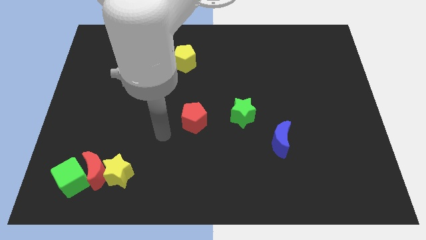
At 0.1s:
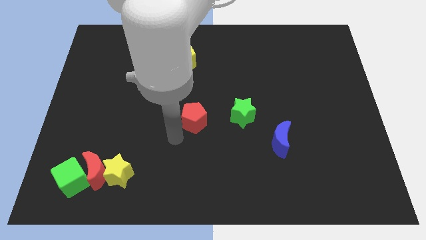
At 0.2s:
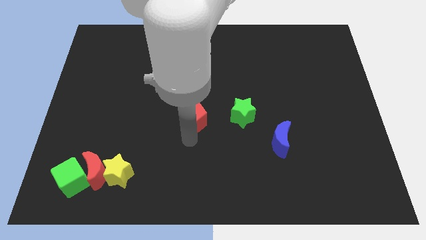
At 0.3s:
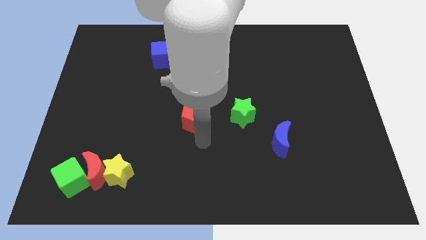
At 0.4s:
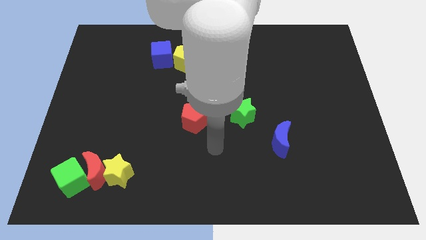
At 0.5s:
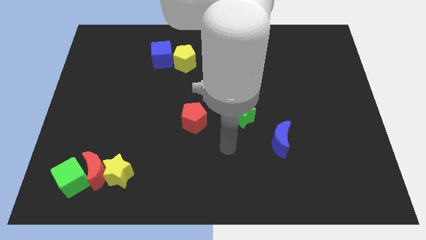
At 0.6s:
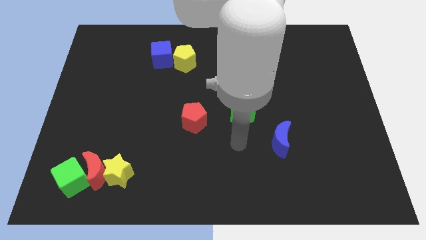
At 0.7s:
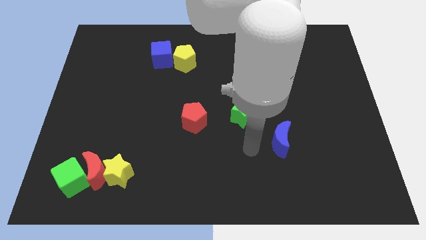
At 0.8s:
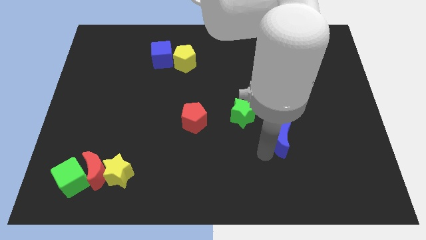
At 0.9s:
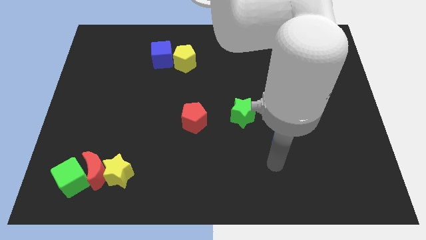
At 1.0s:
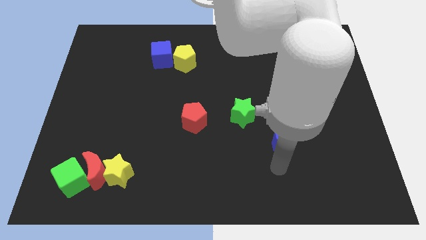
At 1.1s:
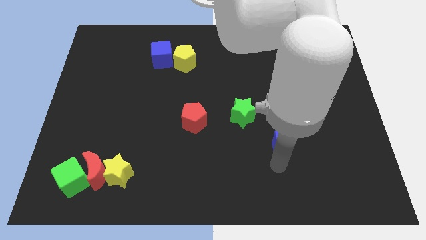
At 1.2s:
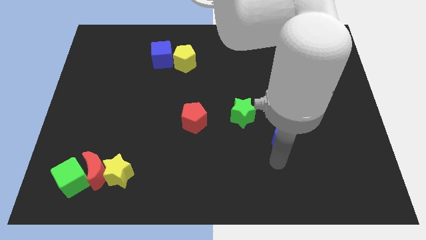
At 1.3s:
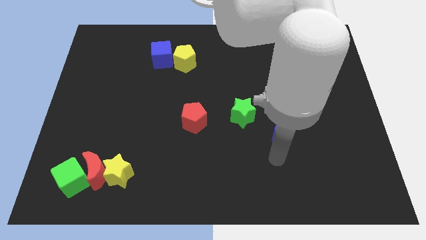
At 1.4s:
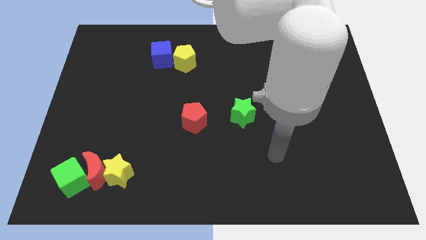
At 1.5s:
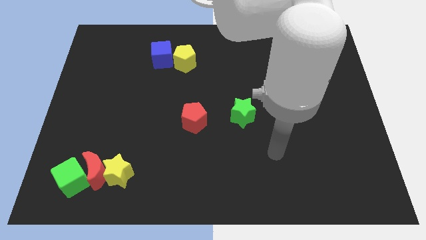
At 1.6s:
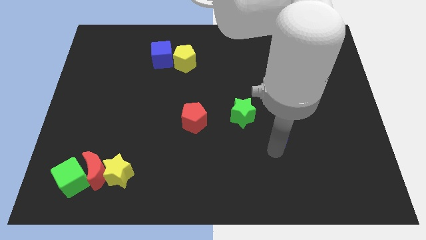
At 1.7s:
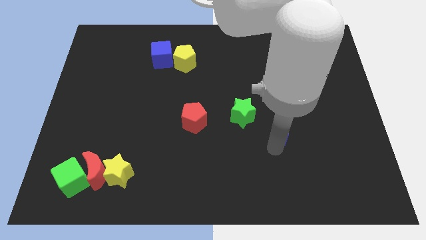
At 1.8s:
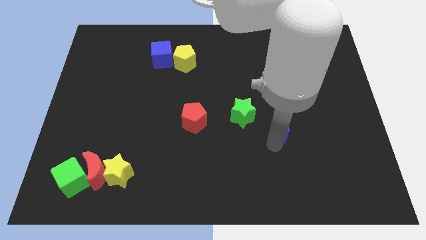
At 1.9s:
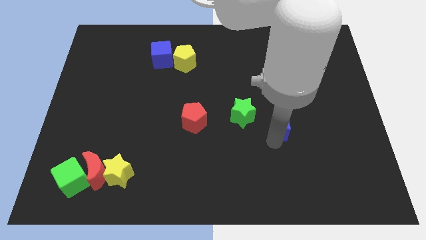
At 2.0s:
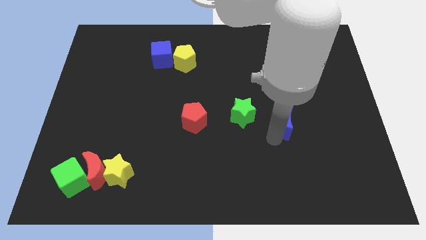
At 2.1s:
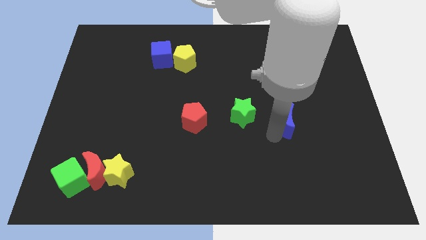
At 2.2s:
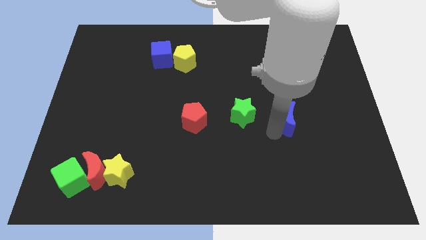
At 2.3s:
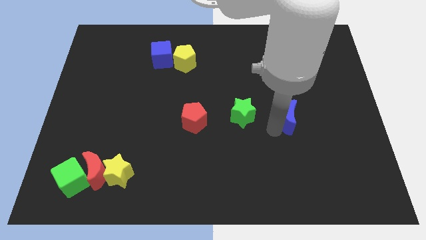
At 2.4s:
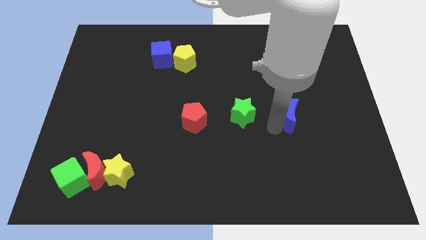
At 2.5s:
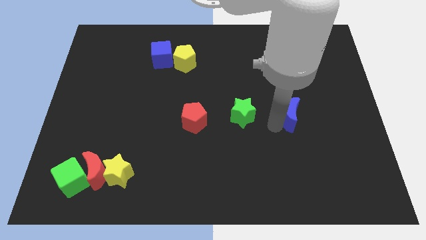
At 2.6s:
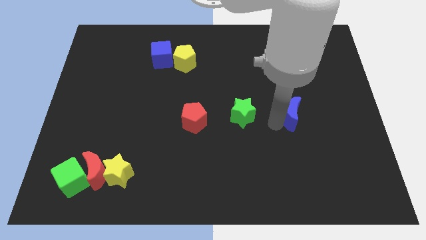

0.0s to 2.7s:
slide the blue moon up a bit

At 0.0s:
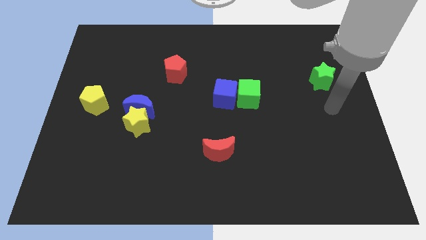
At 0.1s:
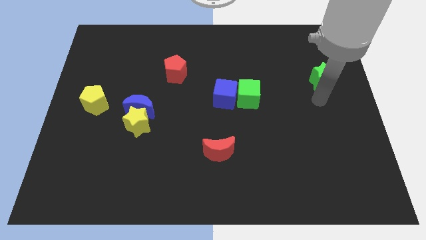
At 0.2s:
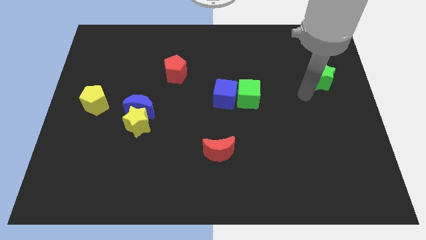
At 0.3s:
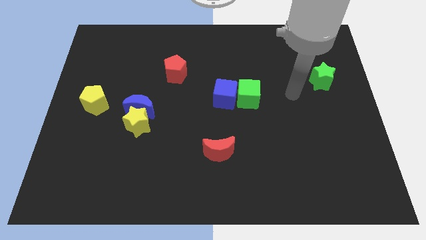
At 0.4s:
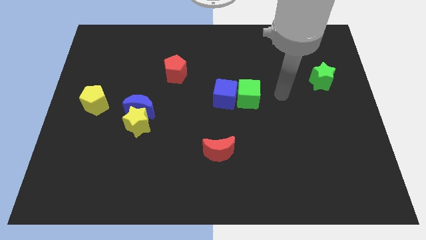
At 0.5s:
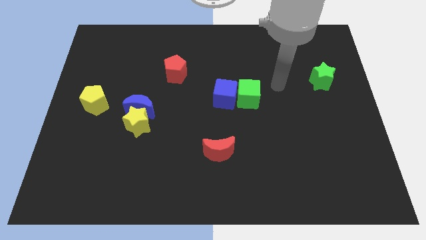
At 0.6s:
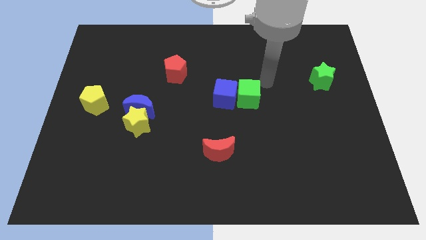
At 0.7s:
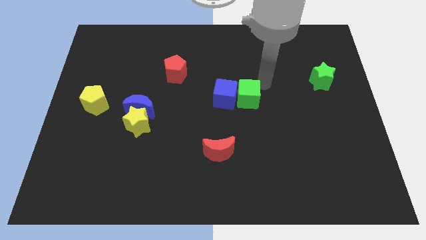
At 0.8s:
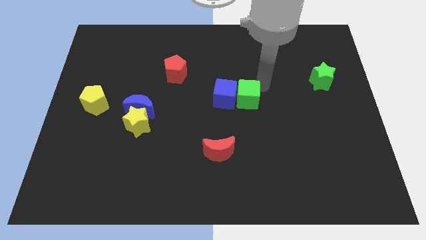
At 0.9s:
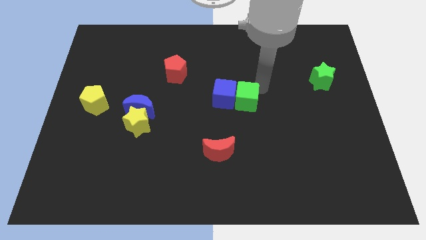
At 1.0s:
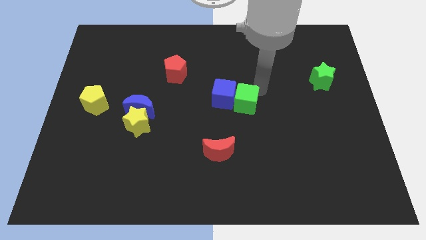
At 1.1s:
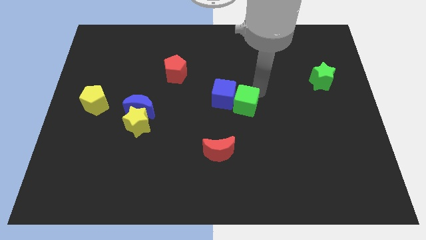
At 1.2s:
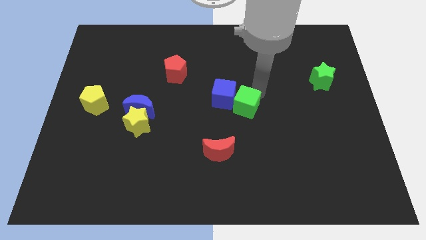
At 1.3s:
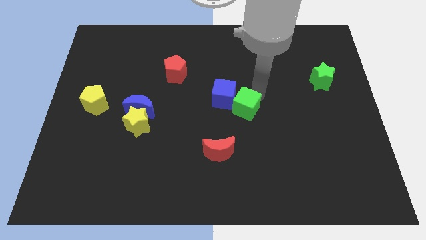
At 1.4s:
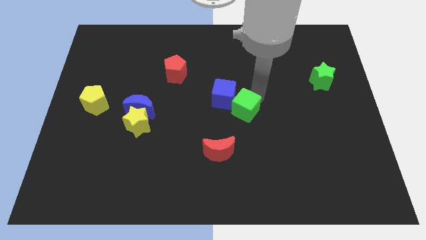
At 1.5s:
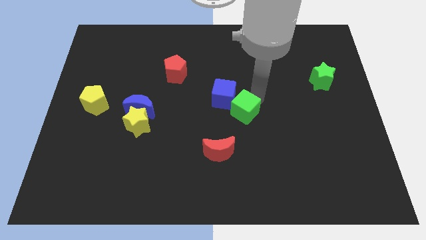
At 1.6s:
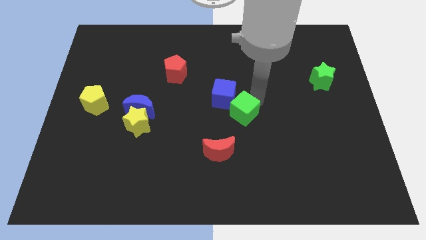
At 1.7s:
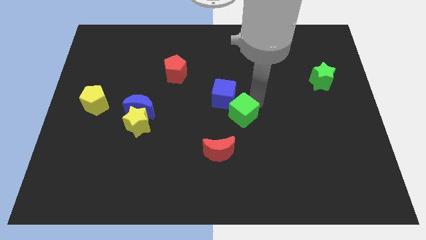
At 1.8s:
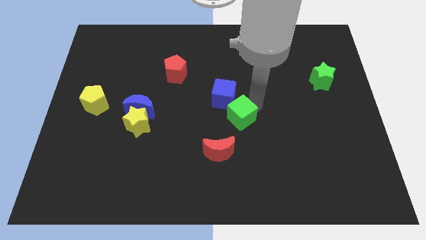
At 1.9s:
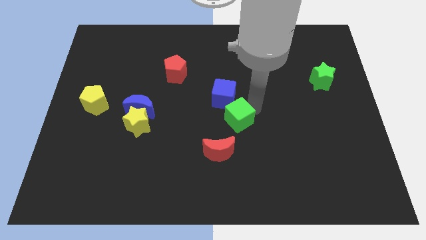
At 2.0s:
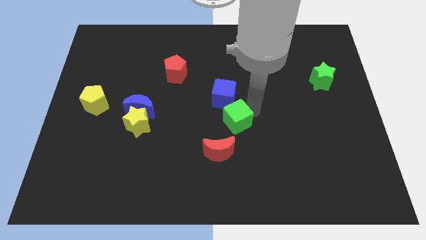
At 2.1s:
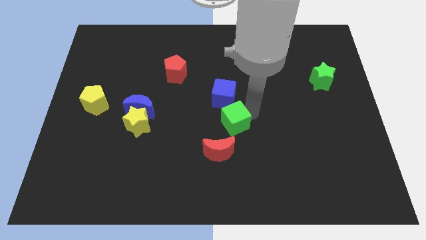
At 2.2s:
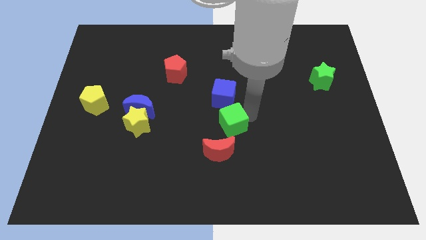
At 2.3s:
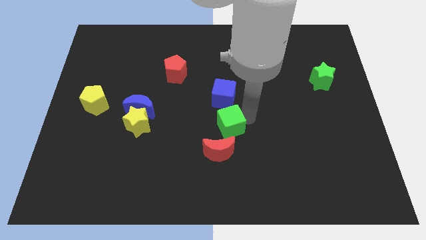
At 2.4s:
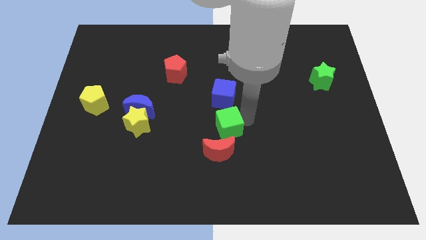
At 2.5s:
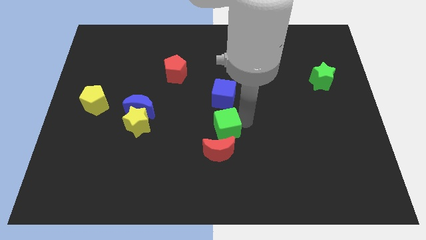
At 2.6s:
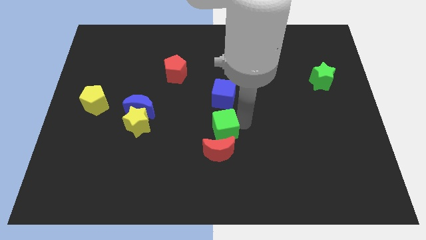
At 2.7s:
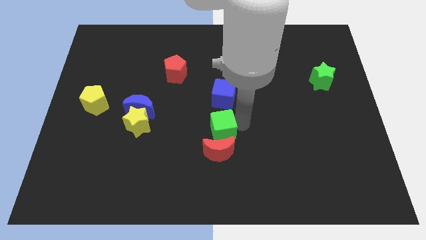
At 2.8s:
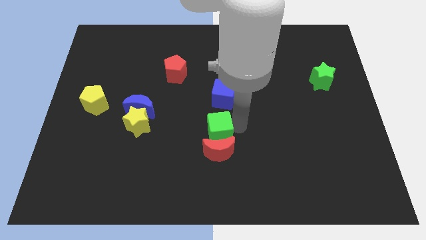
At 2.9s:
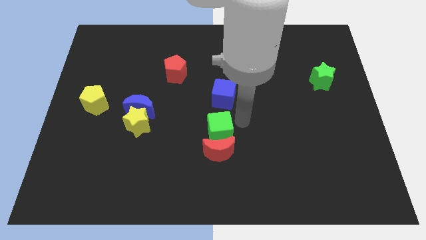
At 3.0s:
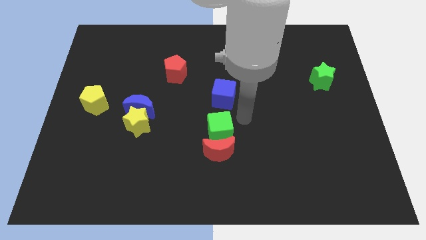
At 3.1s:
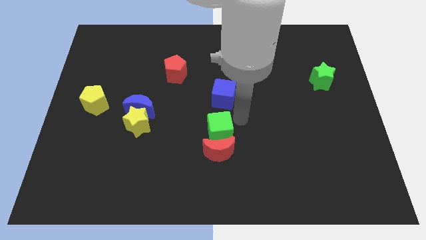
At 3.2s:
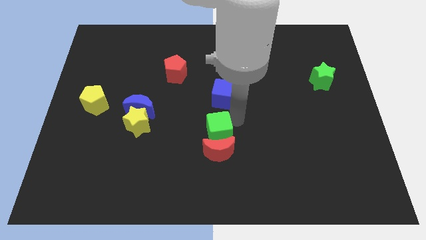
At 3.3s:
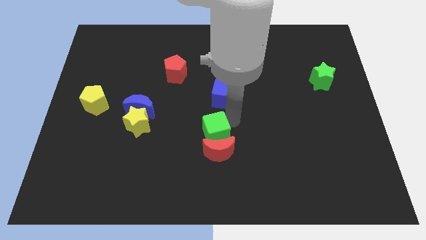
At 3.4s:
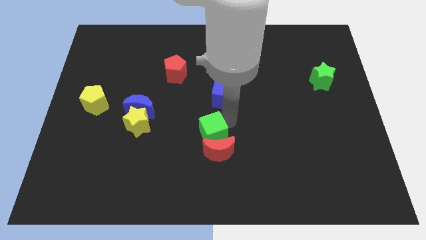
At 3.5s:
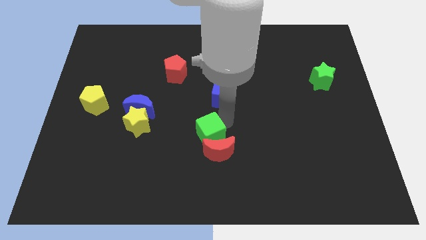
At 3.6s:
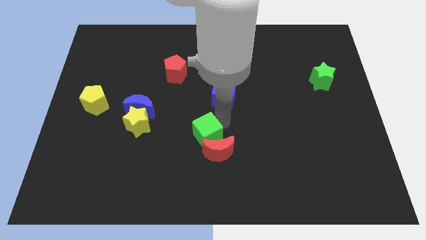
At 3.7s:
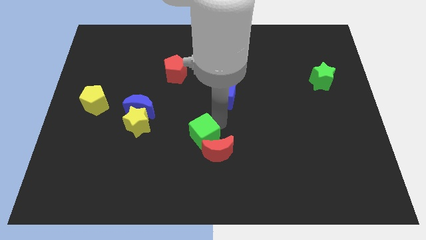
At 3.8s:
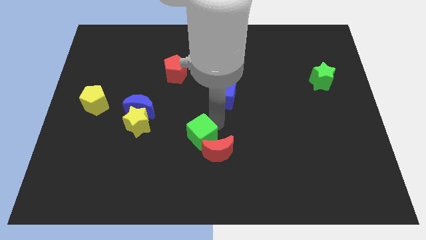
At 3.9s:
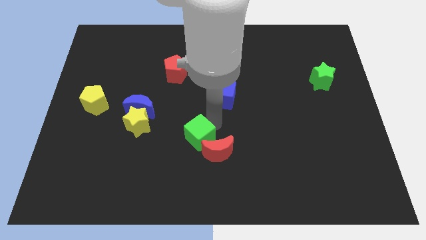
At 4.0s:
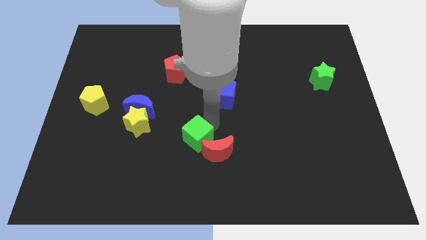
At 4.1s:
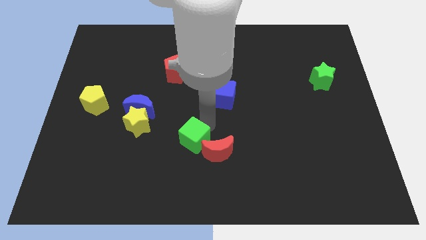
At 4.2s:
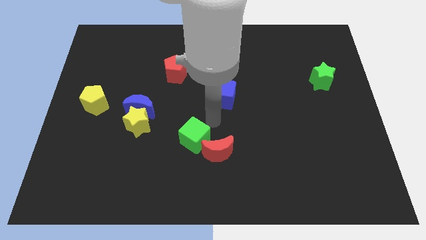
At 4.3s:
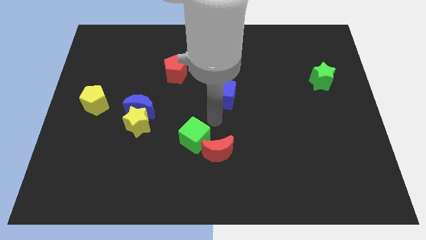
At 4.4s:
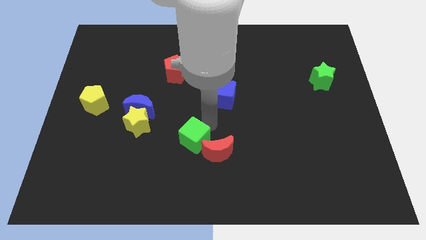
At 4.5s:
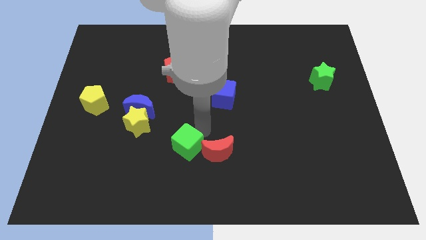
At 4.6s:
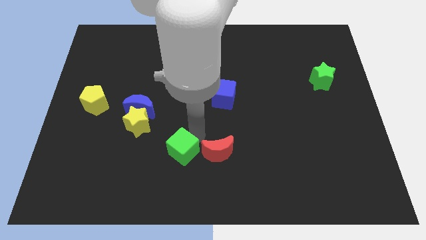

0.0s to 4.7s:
slide the green cube down and to the left diagonally

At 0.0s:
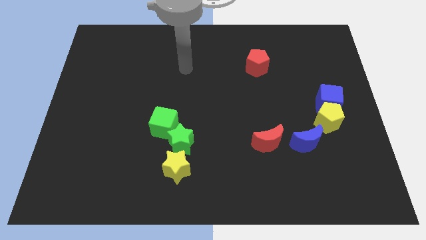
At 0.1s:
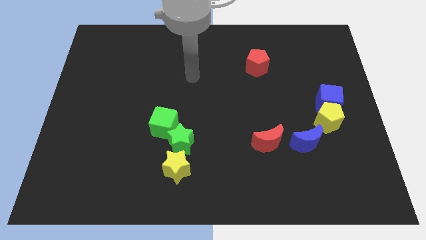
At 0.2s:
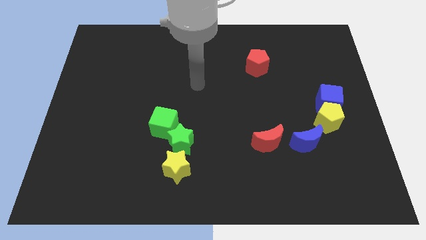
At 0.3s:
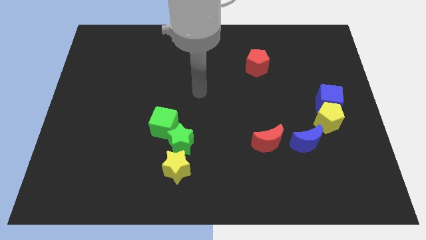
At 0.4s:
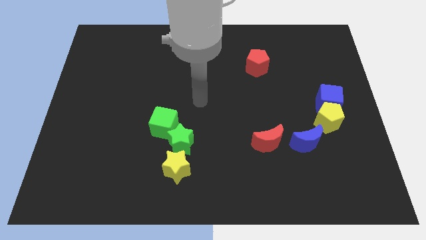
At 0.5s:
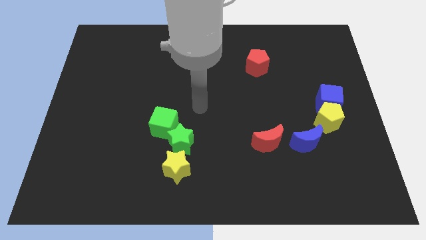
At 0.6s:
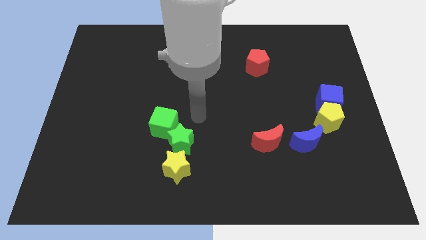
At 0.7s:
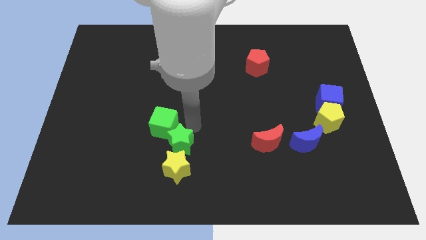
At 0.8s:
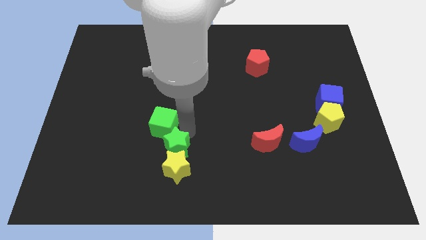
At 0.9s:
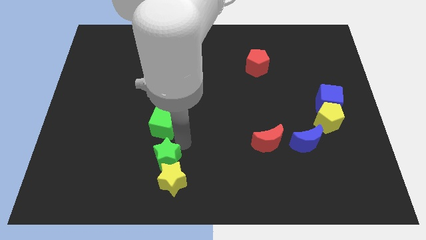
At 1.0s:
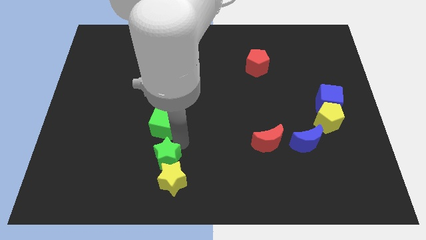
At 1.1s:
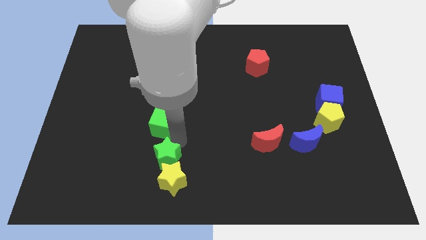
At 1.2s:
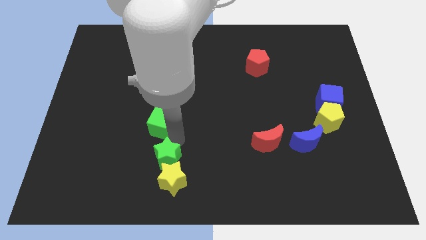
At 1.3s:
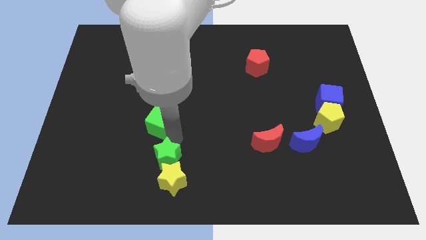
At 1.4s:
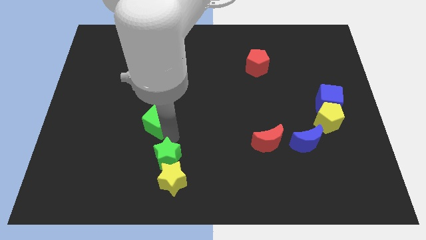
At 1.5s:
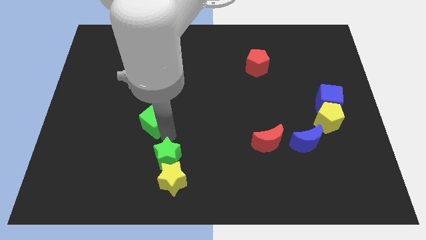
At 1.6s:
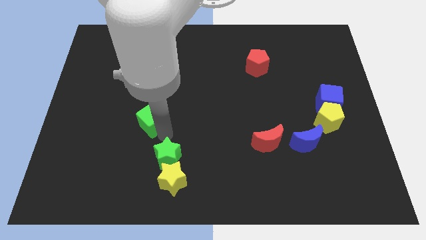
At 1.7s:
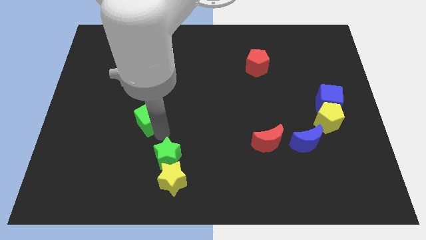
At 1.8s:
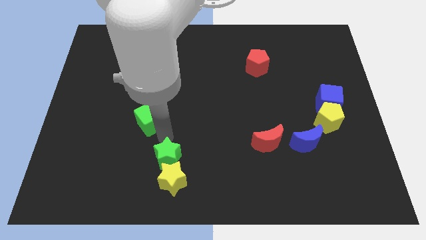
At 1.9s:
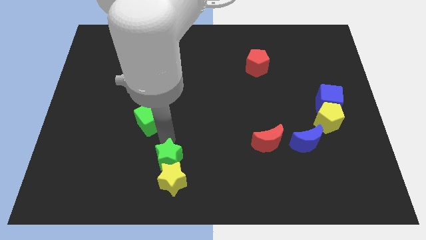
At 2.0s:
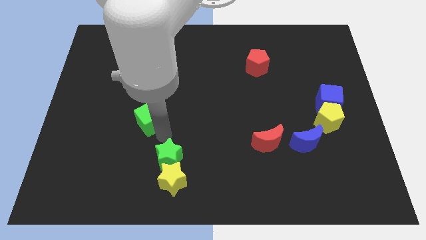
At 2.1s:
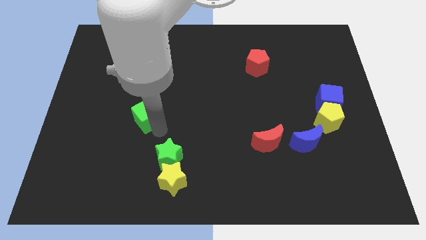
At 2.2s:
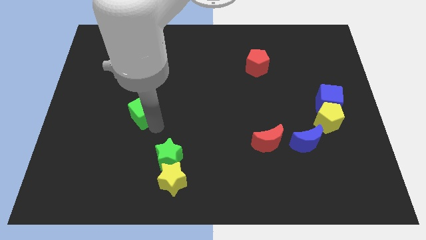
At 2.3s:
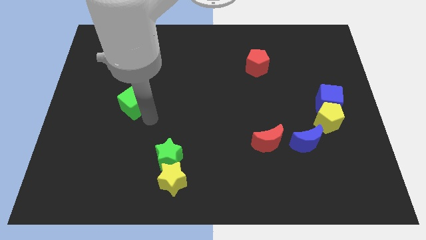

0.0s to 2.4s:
slide the green cube up and to the left diagonally a little
